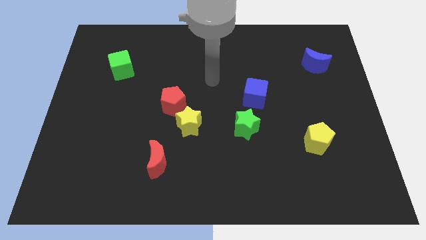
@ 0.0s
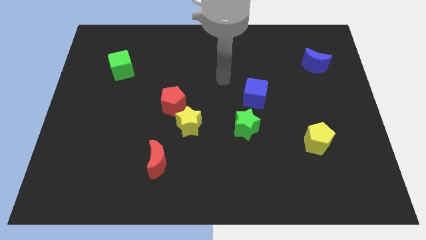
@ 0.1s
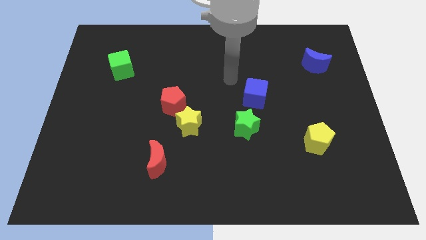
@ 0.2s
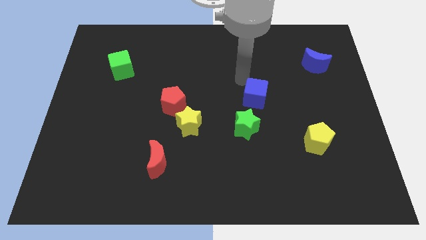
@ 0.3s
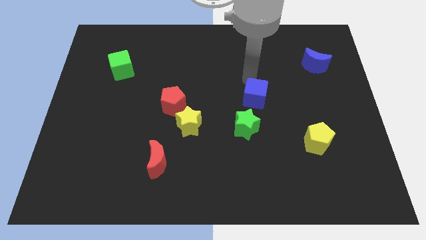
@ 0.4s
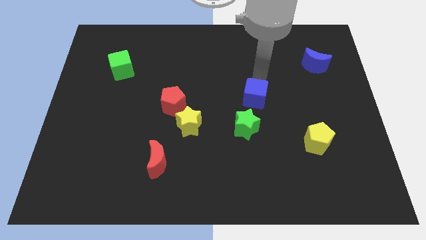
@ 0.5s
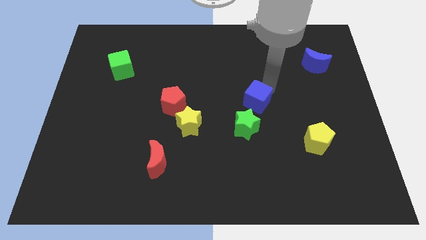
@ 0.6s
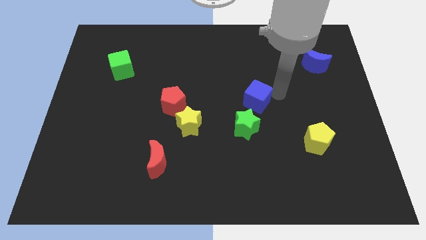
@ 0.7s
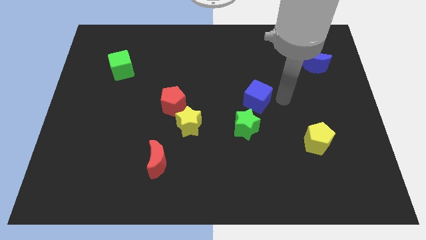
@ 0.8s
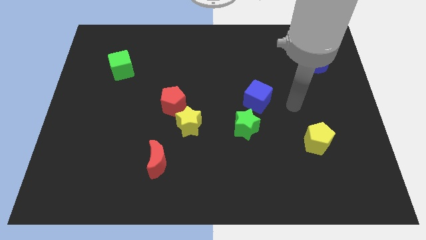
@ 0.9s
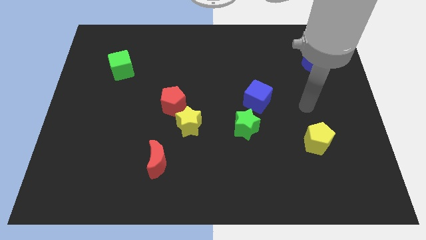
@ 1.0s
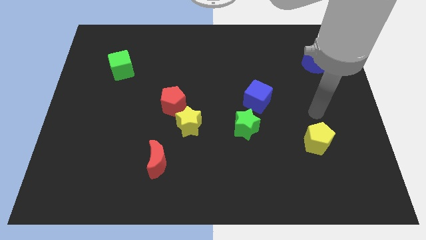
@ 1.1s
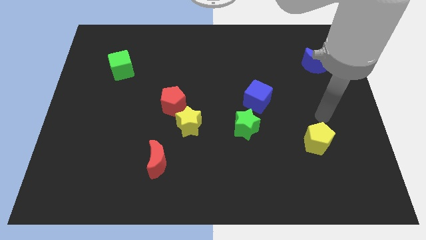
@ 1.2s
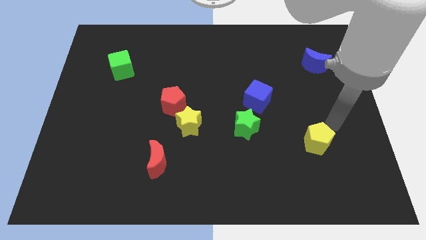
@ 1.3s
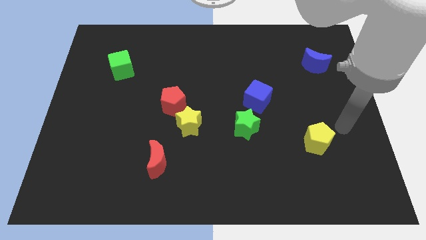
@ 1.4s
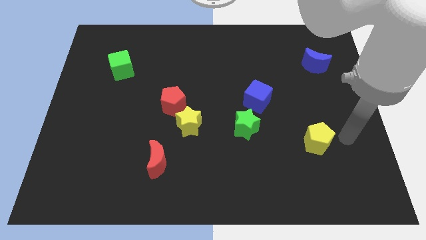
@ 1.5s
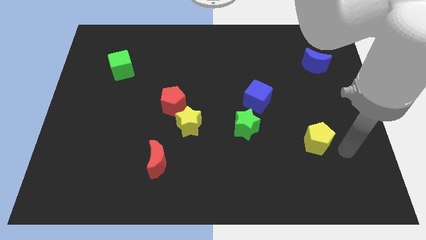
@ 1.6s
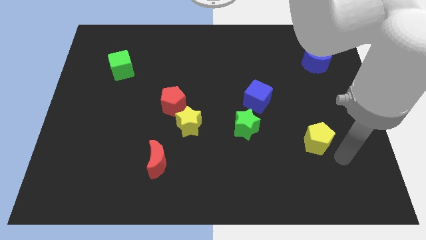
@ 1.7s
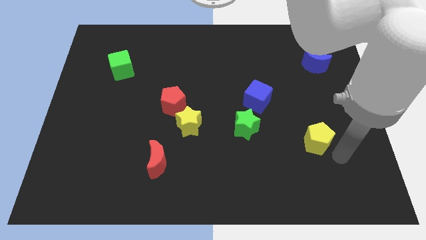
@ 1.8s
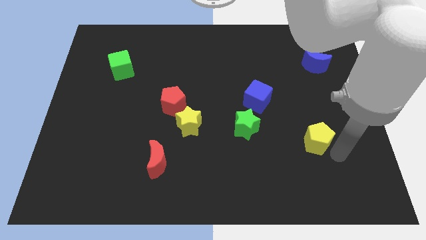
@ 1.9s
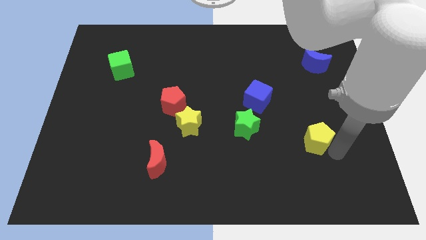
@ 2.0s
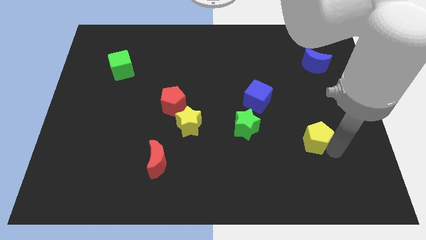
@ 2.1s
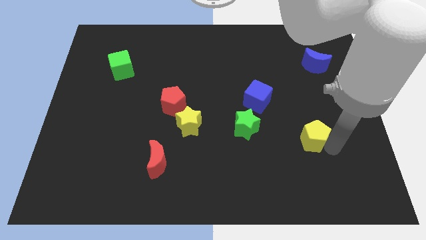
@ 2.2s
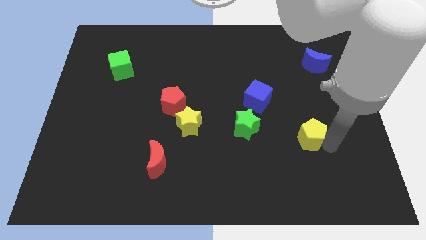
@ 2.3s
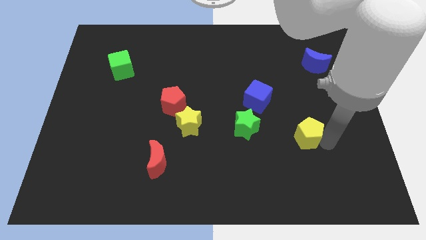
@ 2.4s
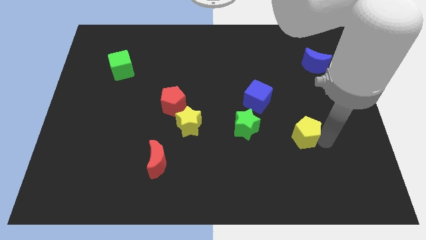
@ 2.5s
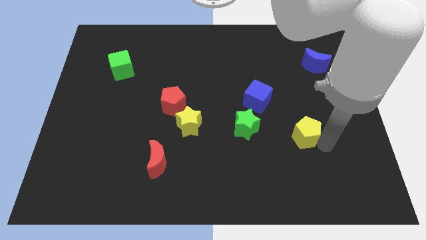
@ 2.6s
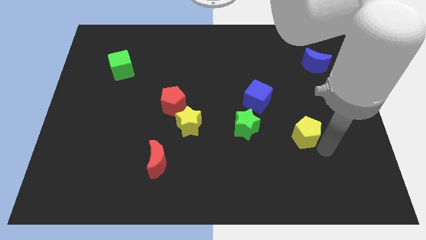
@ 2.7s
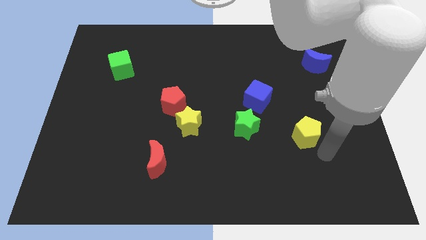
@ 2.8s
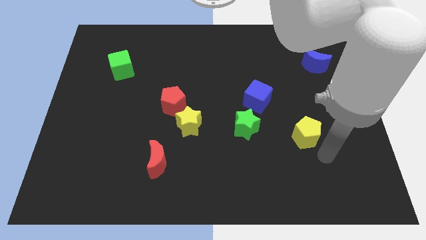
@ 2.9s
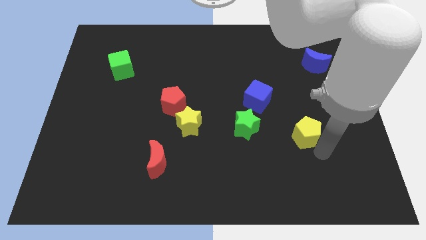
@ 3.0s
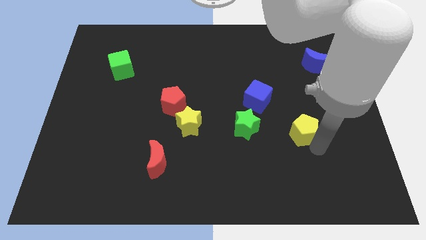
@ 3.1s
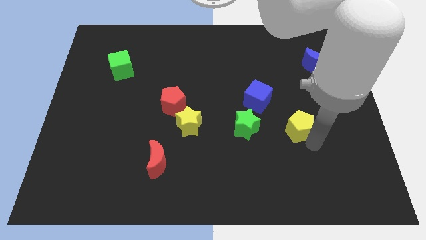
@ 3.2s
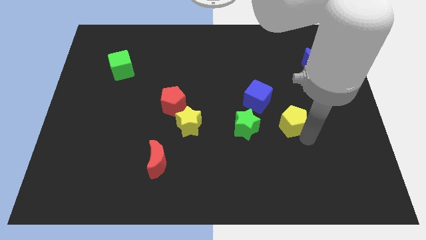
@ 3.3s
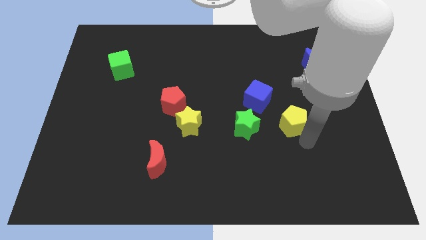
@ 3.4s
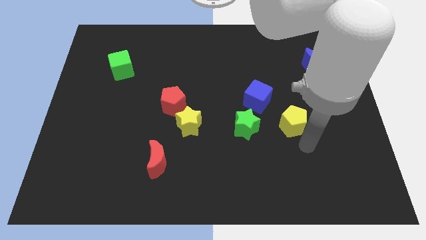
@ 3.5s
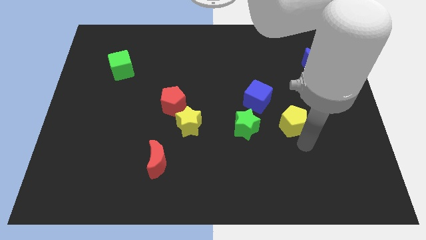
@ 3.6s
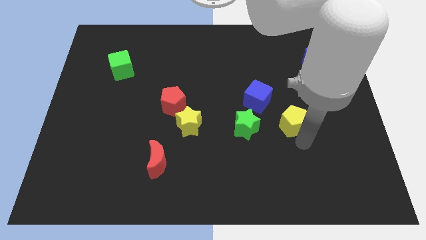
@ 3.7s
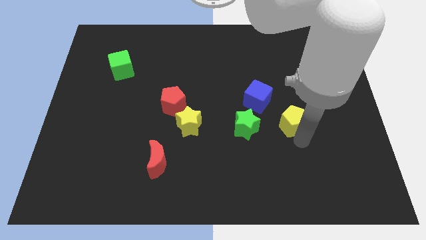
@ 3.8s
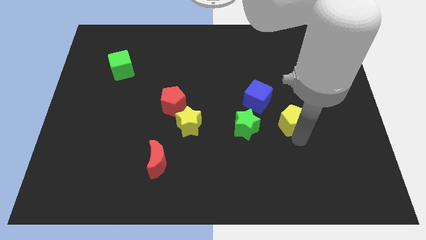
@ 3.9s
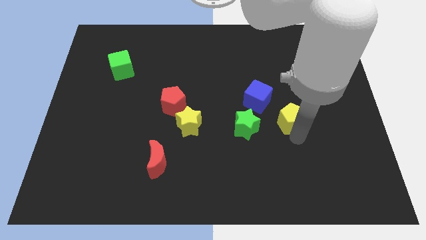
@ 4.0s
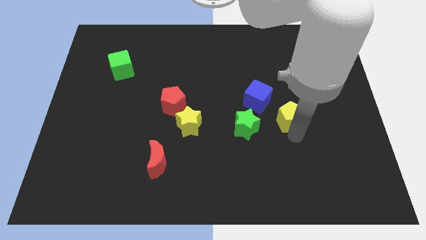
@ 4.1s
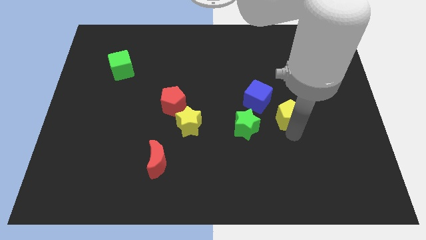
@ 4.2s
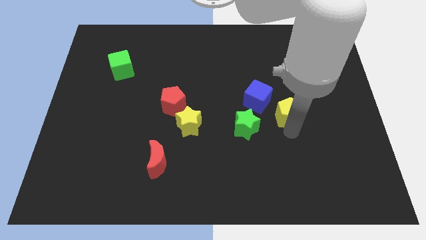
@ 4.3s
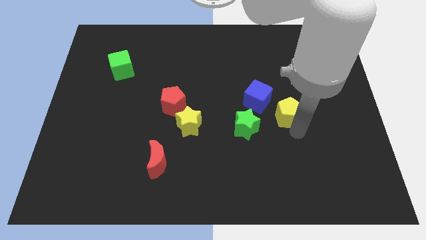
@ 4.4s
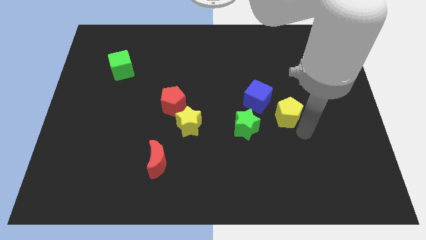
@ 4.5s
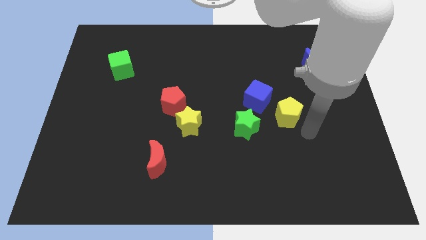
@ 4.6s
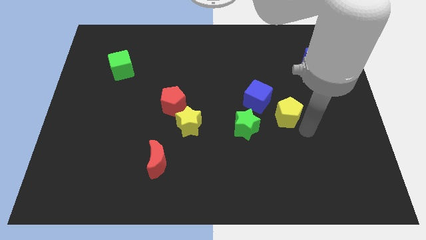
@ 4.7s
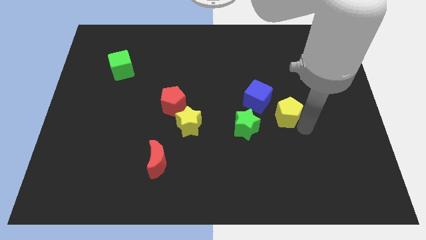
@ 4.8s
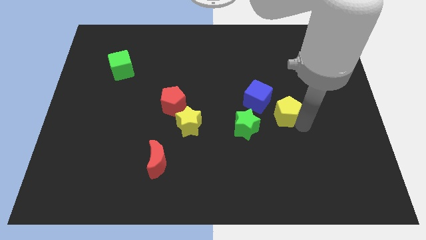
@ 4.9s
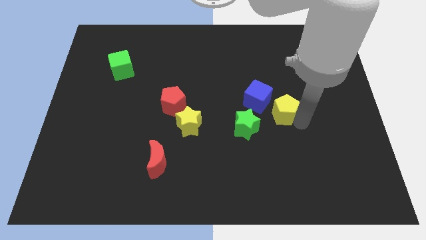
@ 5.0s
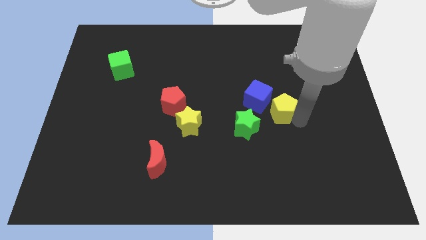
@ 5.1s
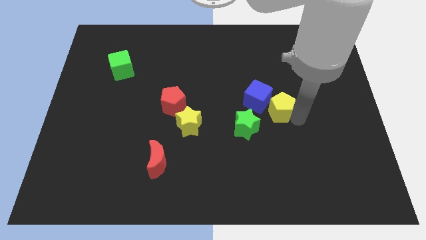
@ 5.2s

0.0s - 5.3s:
push the yellow pentagon towards the blue cube

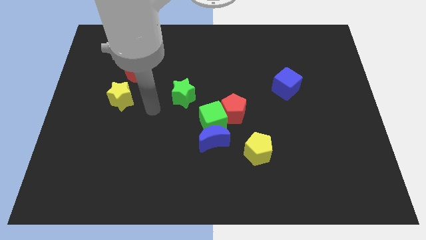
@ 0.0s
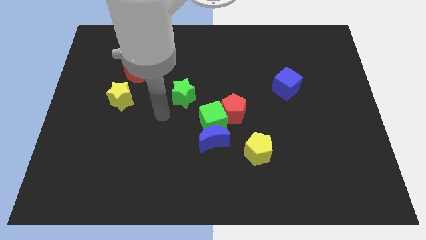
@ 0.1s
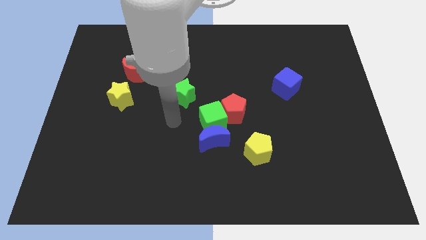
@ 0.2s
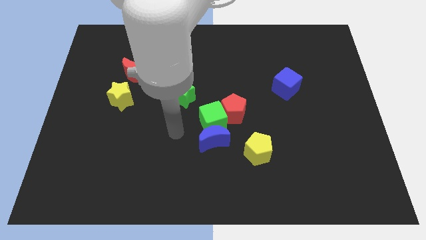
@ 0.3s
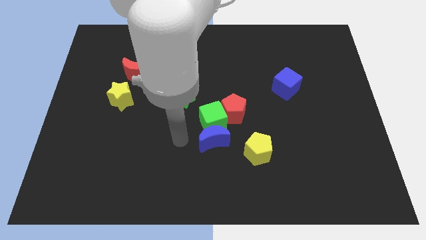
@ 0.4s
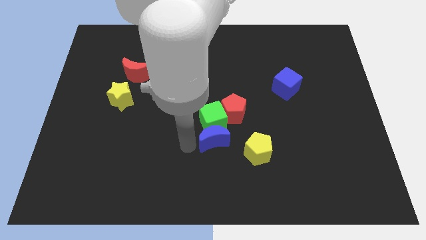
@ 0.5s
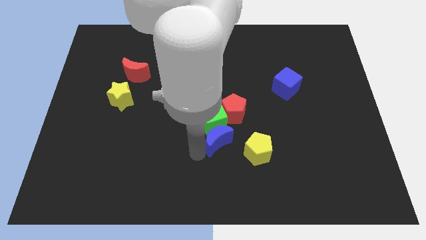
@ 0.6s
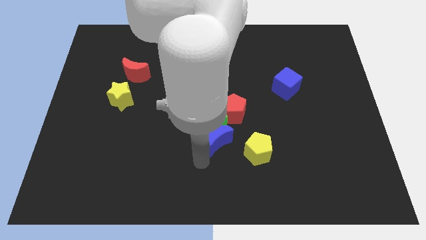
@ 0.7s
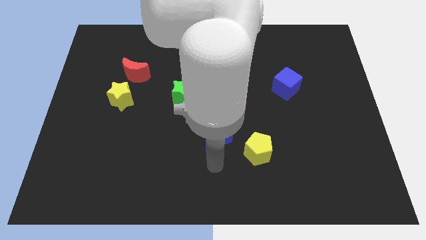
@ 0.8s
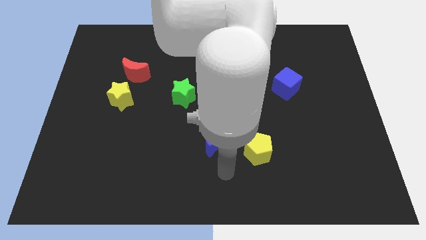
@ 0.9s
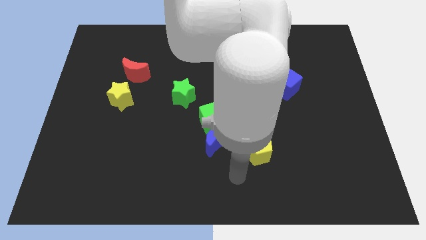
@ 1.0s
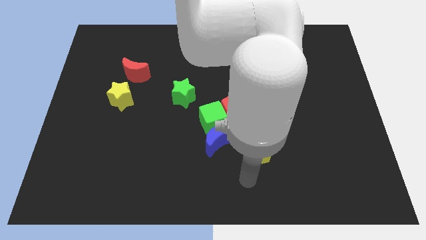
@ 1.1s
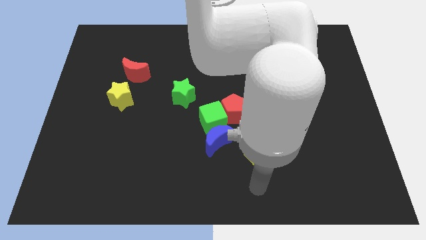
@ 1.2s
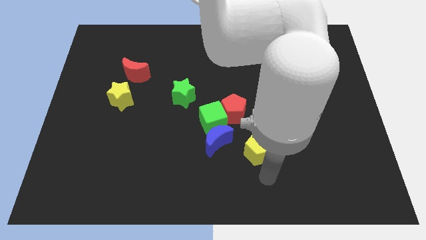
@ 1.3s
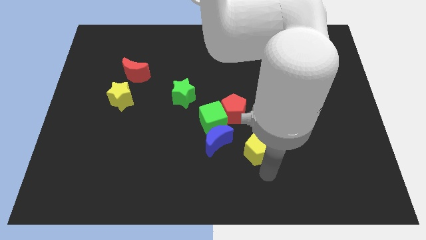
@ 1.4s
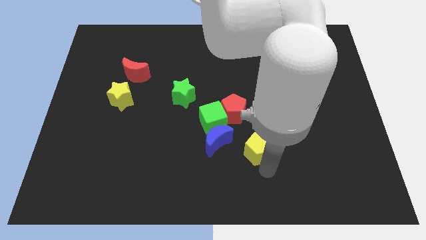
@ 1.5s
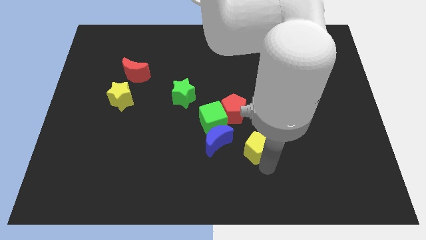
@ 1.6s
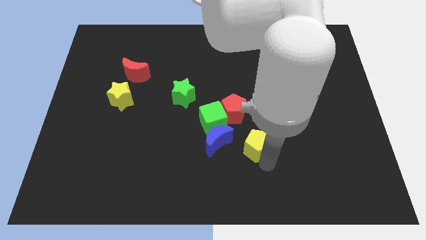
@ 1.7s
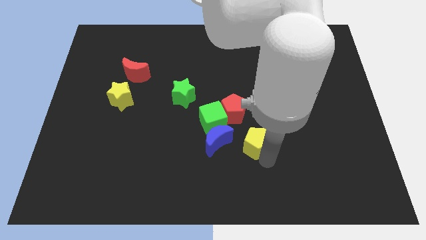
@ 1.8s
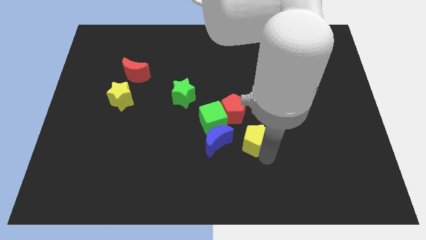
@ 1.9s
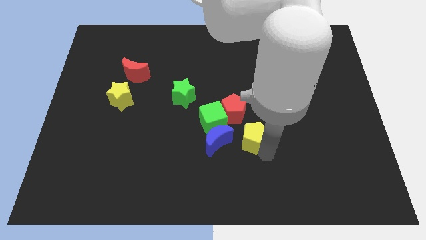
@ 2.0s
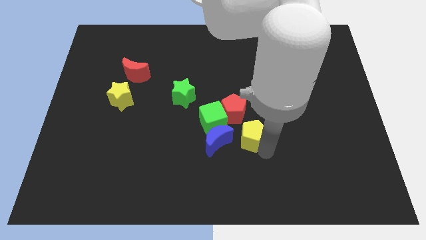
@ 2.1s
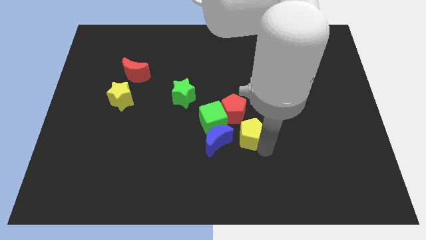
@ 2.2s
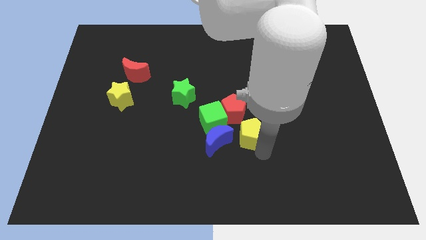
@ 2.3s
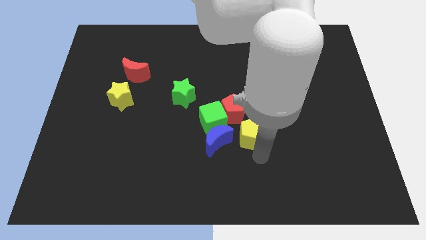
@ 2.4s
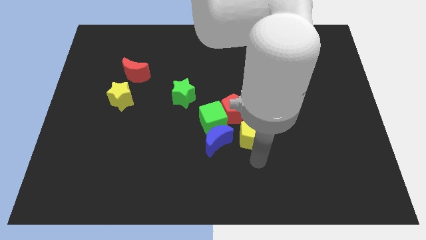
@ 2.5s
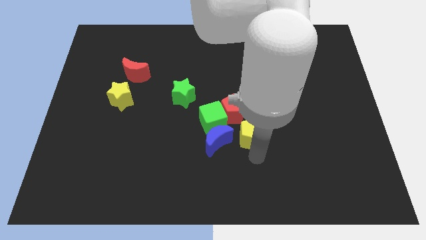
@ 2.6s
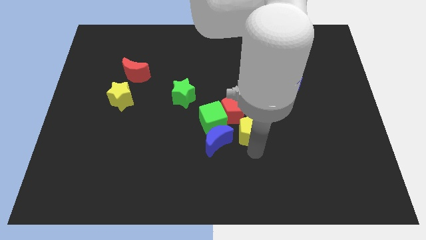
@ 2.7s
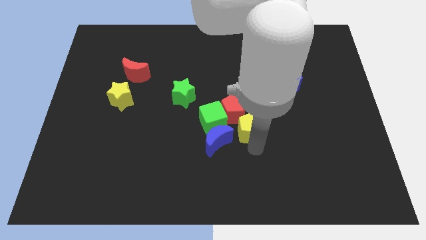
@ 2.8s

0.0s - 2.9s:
put the yellow pentagon close to the red pentagon

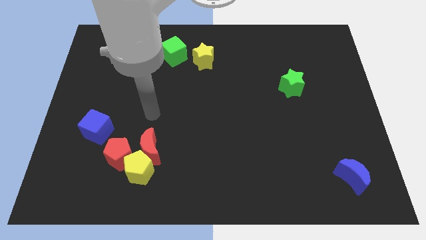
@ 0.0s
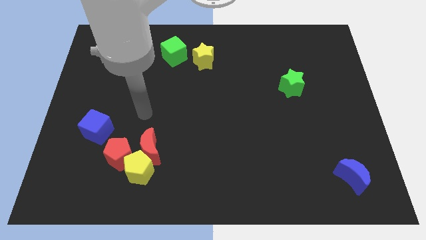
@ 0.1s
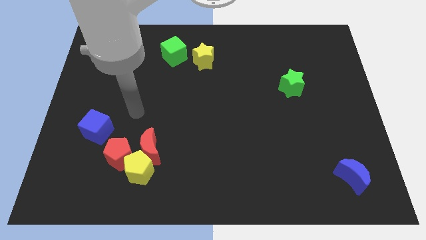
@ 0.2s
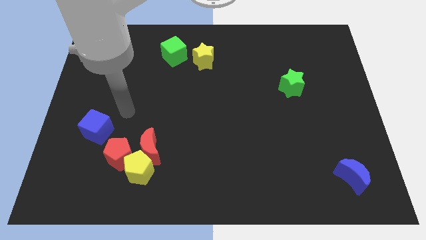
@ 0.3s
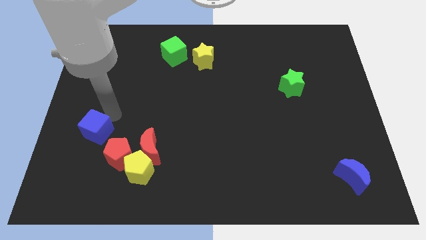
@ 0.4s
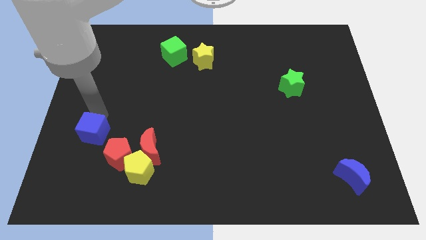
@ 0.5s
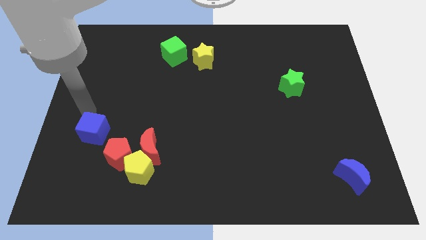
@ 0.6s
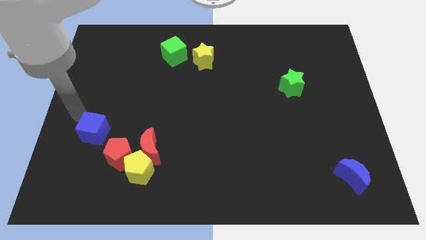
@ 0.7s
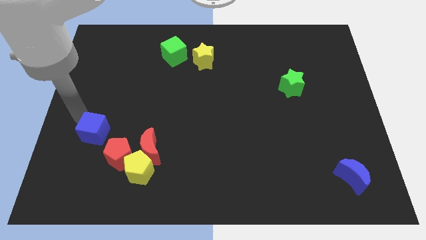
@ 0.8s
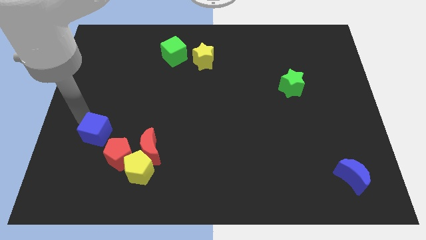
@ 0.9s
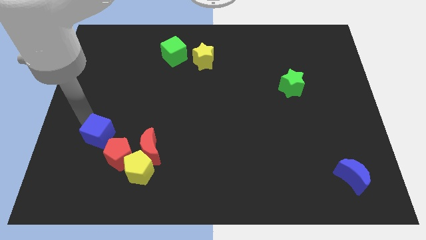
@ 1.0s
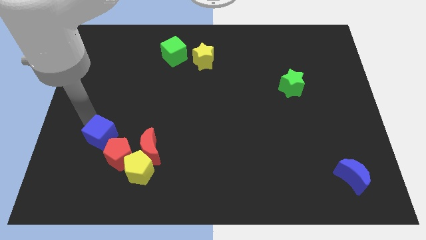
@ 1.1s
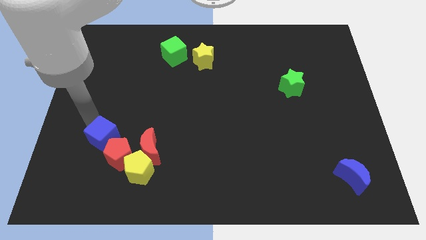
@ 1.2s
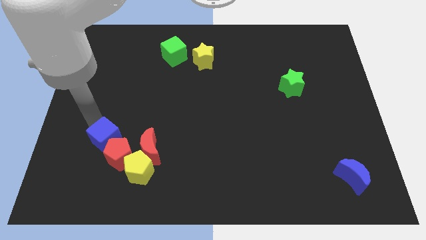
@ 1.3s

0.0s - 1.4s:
slide the blue cube close to the red pentagon
